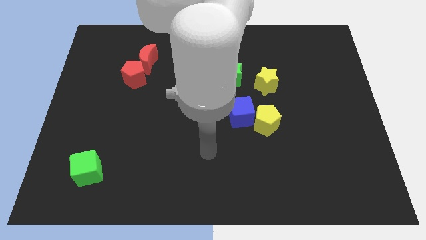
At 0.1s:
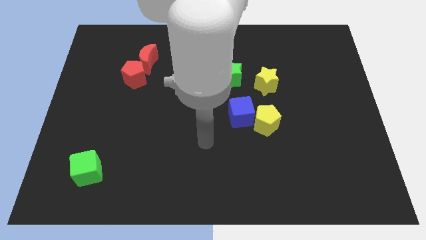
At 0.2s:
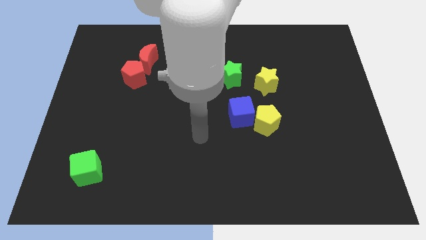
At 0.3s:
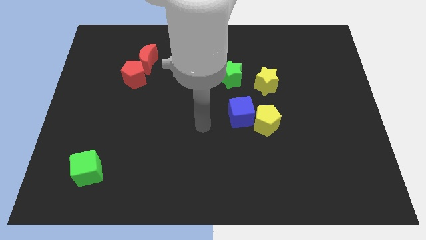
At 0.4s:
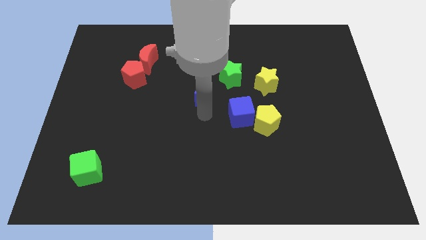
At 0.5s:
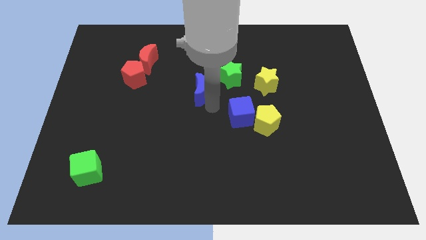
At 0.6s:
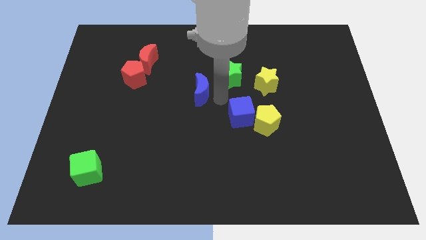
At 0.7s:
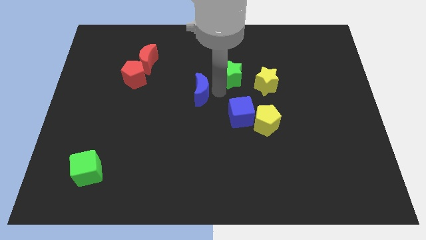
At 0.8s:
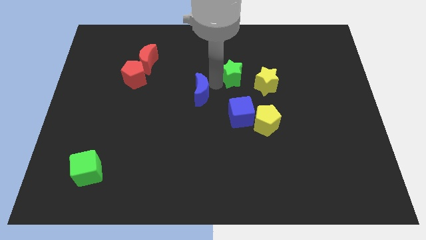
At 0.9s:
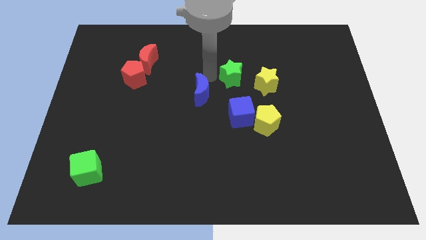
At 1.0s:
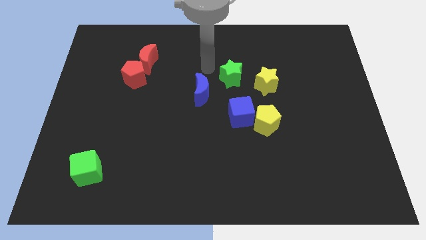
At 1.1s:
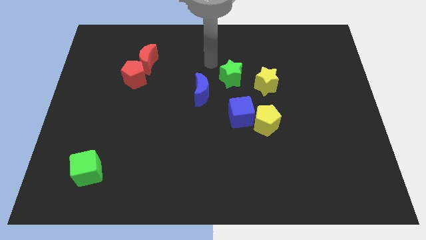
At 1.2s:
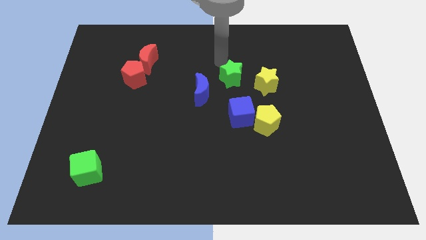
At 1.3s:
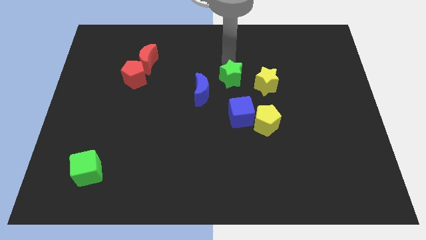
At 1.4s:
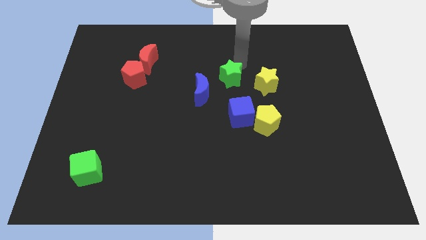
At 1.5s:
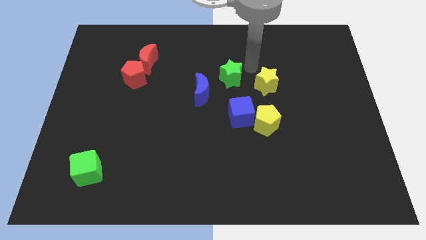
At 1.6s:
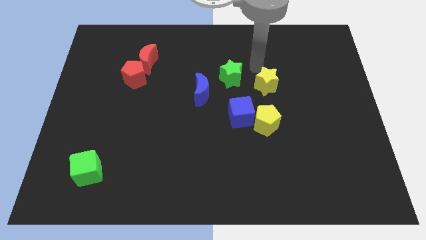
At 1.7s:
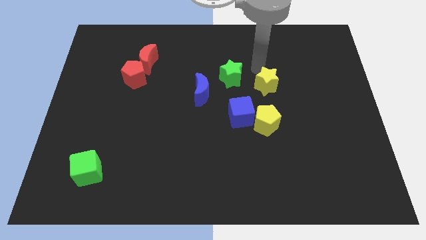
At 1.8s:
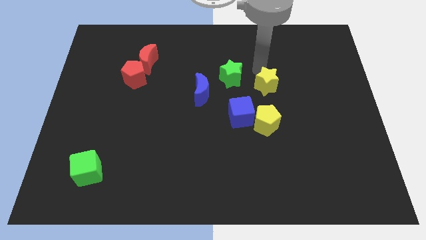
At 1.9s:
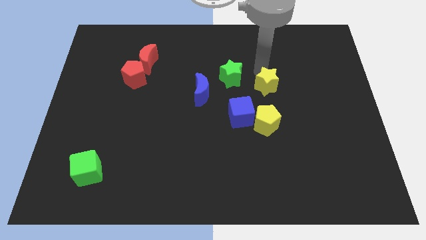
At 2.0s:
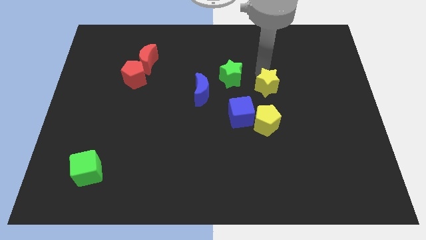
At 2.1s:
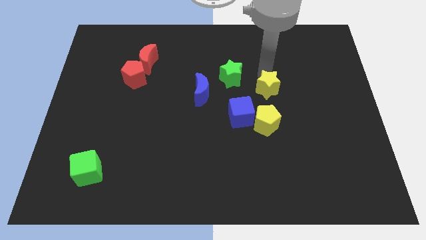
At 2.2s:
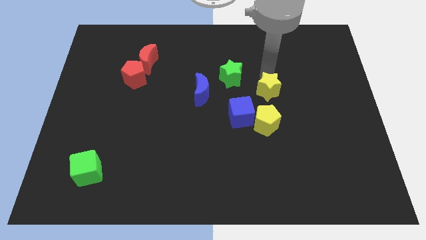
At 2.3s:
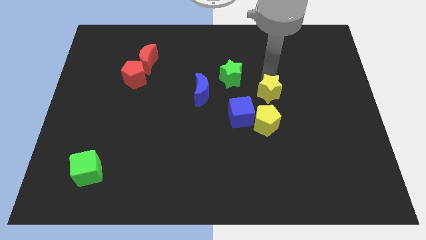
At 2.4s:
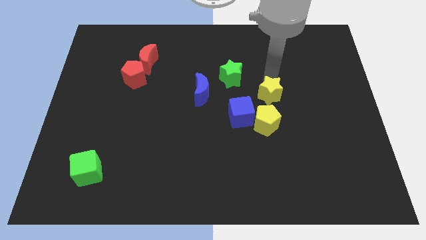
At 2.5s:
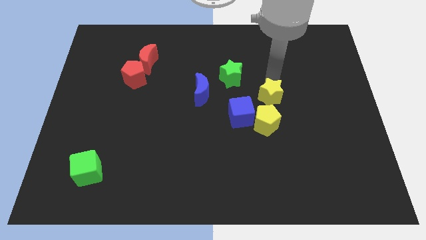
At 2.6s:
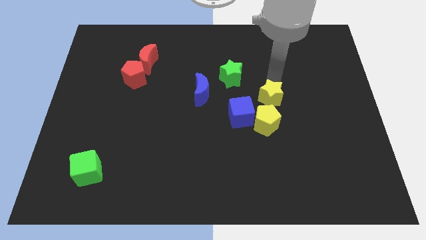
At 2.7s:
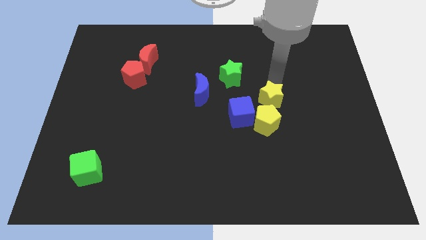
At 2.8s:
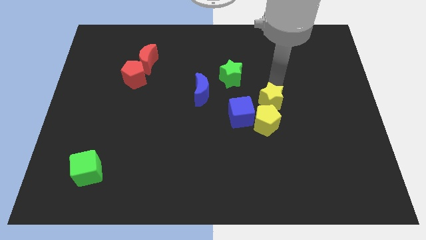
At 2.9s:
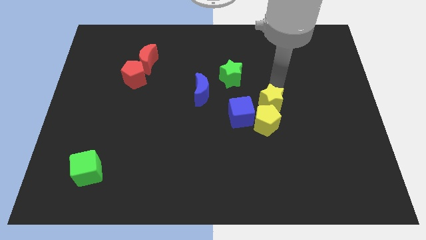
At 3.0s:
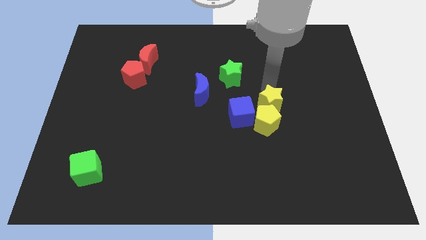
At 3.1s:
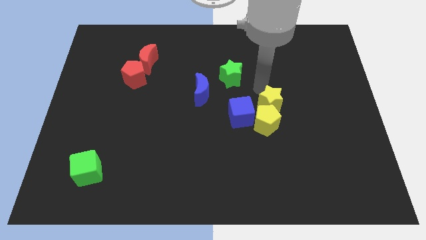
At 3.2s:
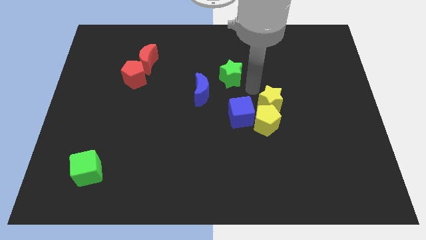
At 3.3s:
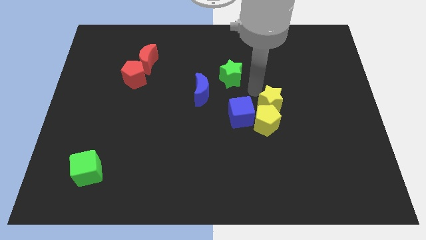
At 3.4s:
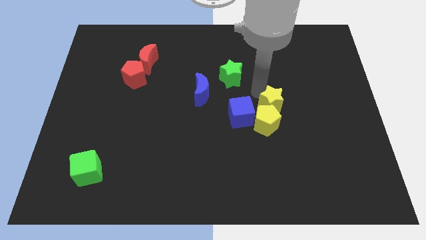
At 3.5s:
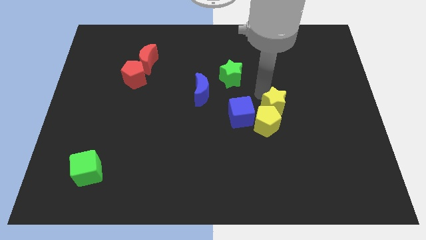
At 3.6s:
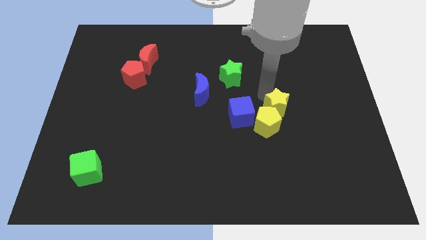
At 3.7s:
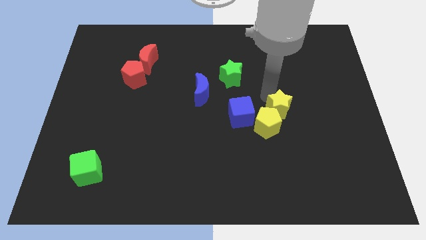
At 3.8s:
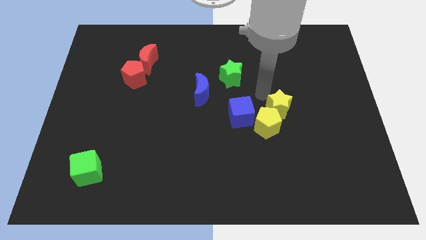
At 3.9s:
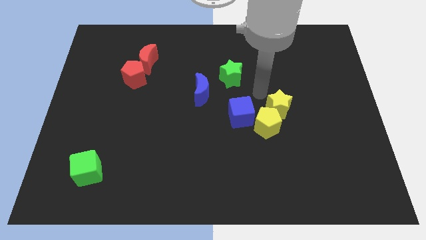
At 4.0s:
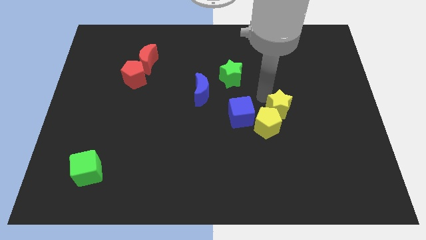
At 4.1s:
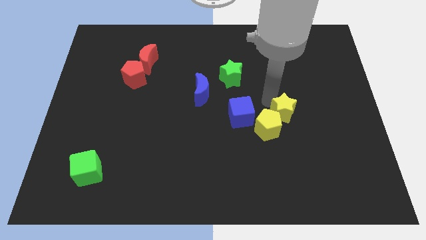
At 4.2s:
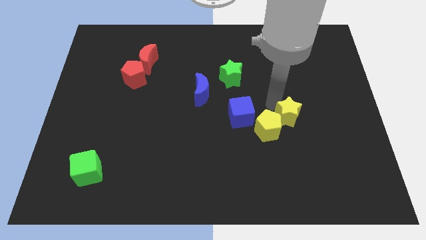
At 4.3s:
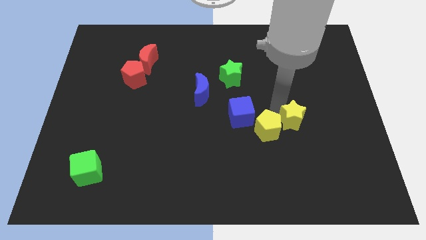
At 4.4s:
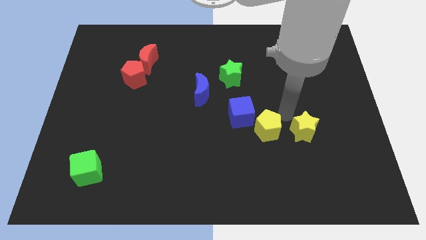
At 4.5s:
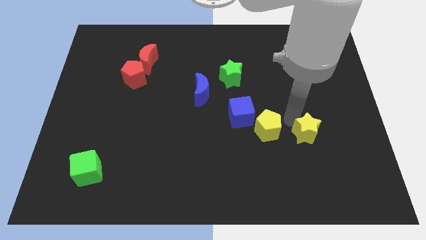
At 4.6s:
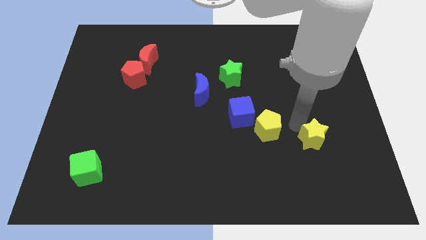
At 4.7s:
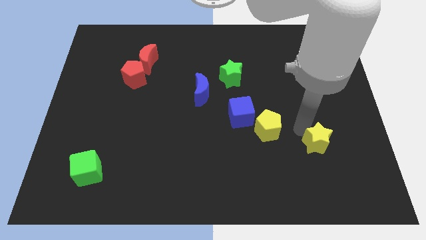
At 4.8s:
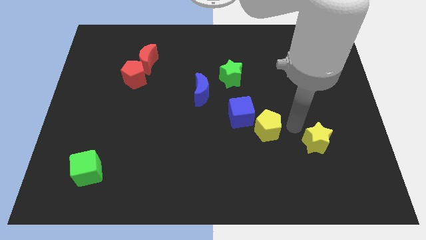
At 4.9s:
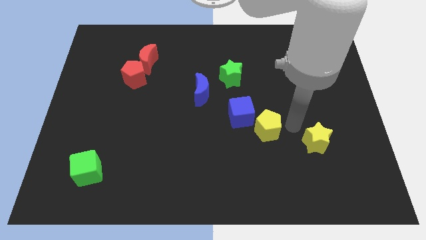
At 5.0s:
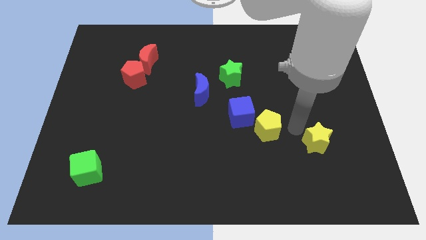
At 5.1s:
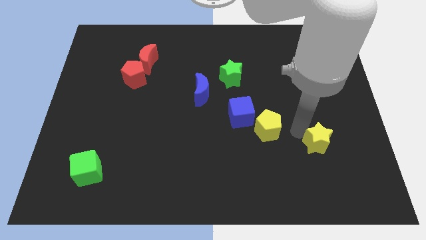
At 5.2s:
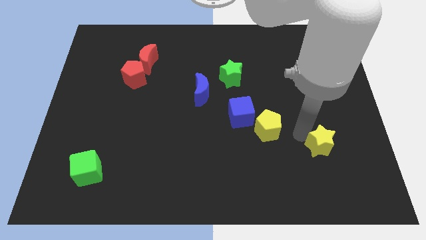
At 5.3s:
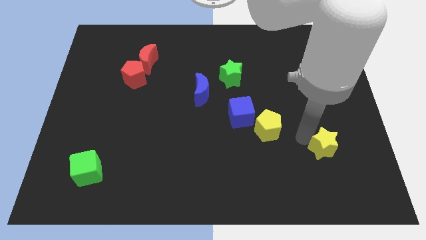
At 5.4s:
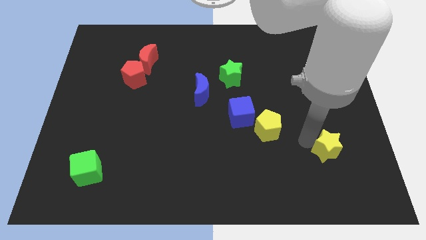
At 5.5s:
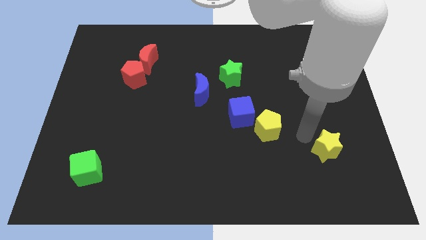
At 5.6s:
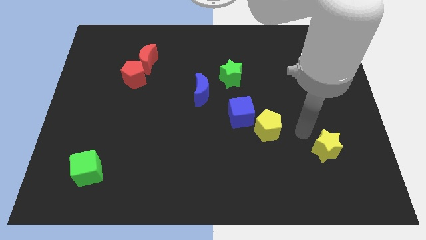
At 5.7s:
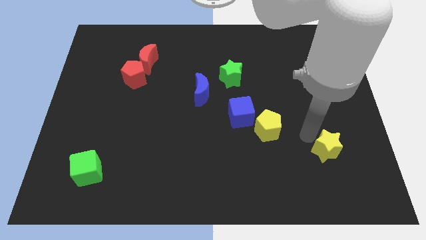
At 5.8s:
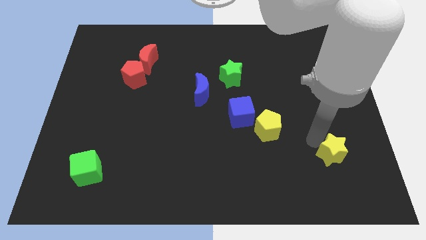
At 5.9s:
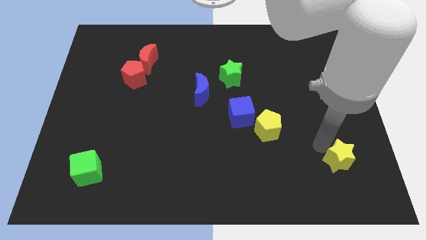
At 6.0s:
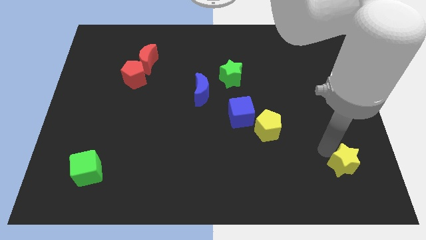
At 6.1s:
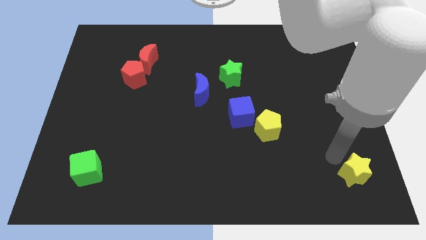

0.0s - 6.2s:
push the yellow star to the bottom right

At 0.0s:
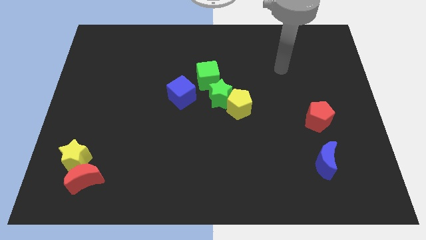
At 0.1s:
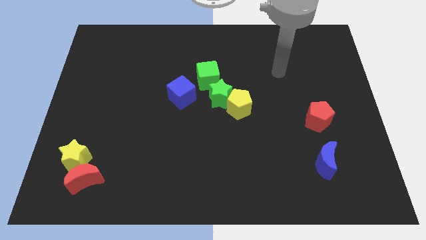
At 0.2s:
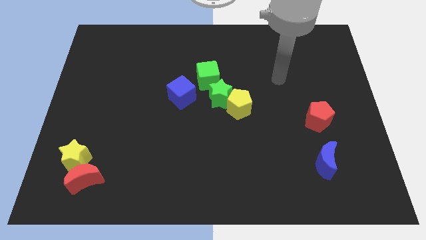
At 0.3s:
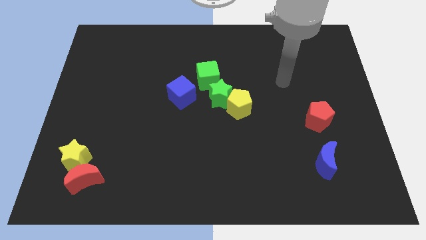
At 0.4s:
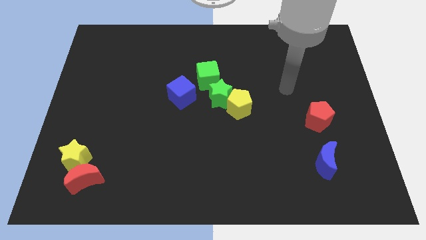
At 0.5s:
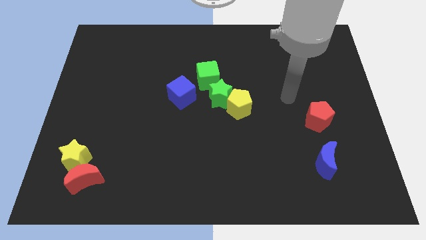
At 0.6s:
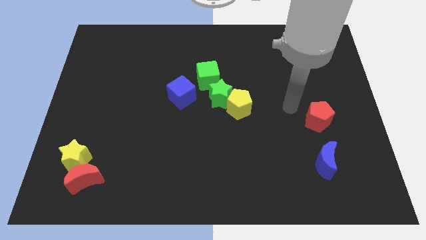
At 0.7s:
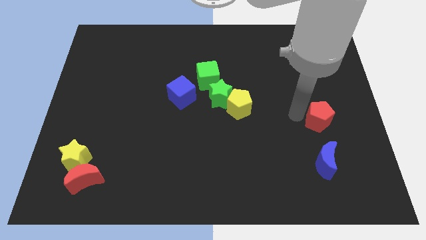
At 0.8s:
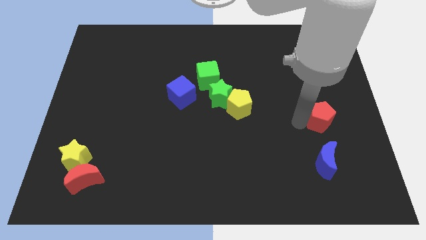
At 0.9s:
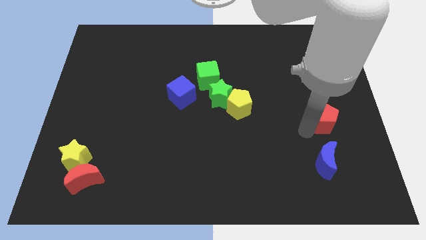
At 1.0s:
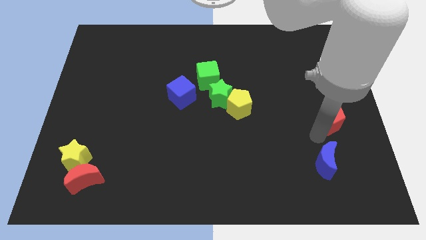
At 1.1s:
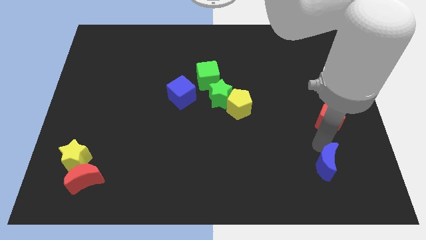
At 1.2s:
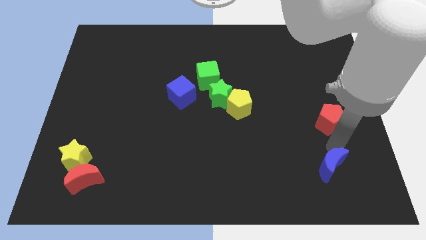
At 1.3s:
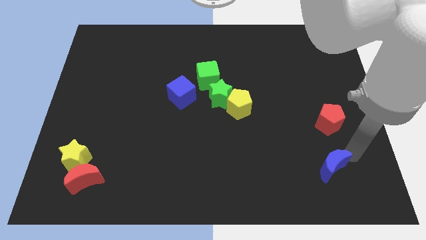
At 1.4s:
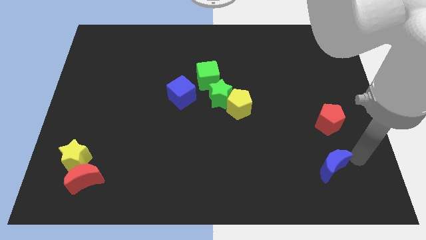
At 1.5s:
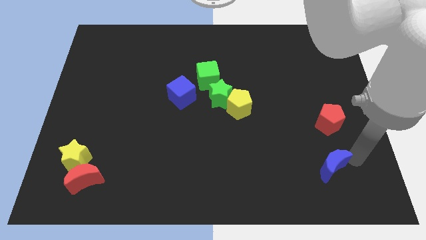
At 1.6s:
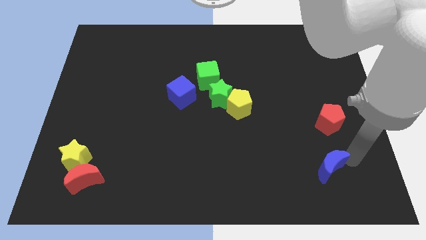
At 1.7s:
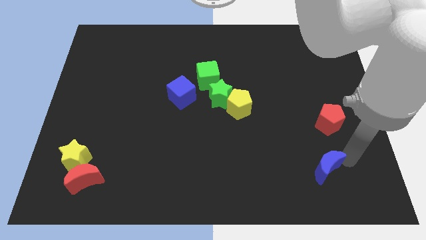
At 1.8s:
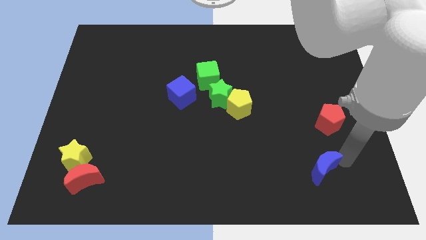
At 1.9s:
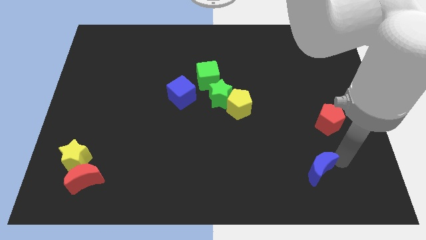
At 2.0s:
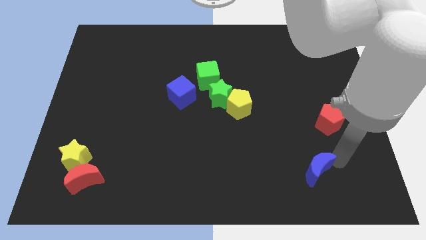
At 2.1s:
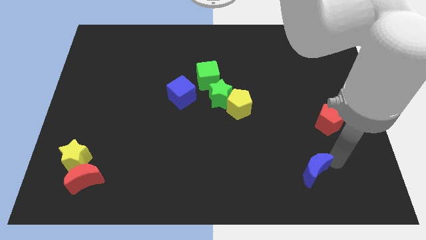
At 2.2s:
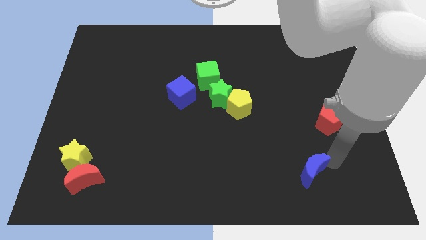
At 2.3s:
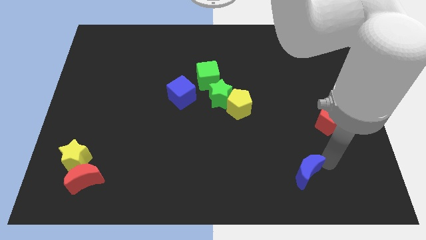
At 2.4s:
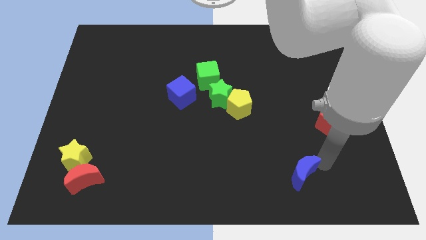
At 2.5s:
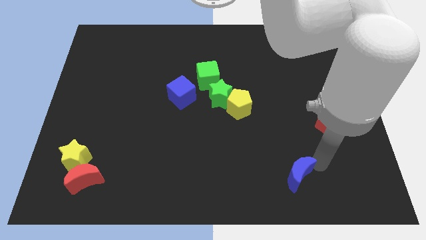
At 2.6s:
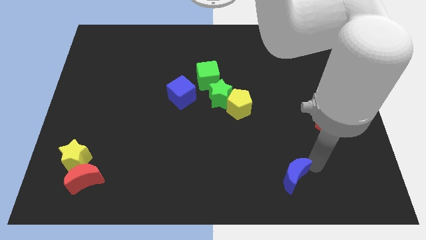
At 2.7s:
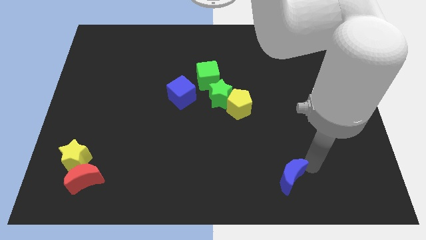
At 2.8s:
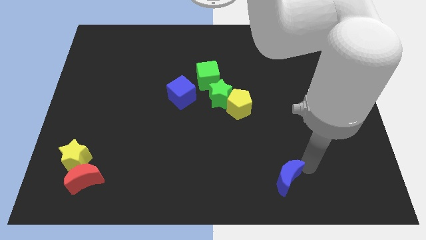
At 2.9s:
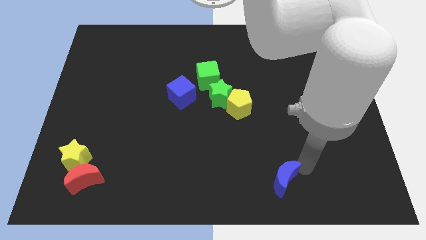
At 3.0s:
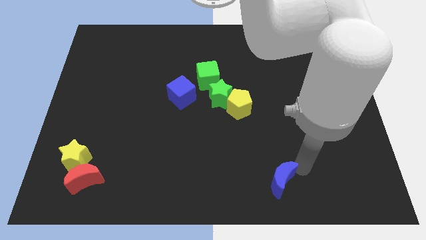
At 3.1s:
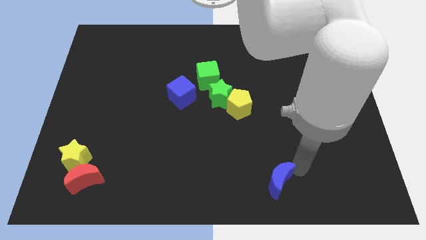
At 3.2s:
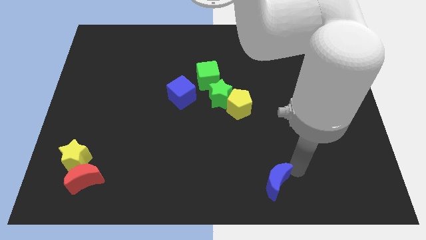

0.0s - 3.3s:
push the blue moon to the bottom side
